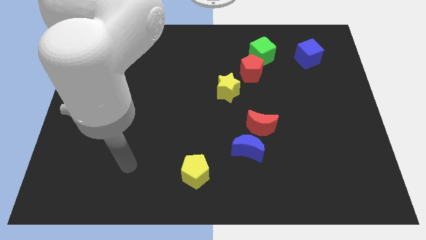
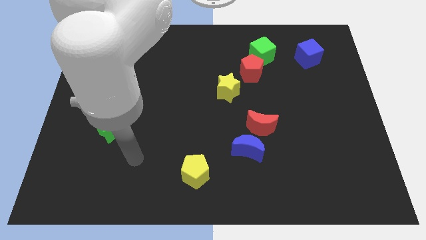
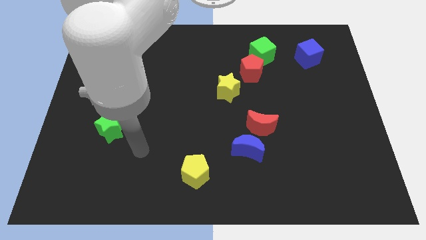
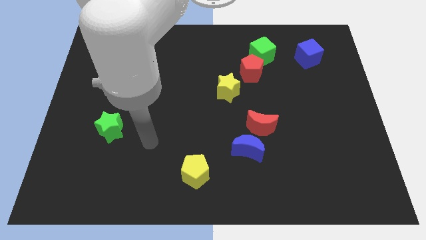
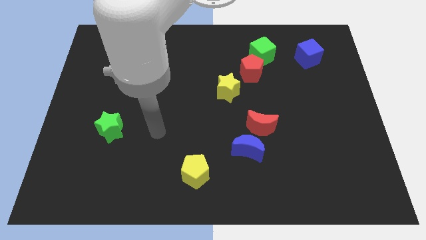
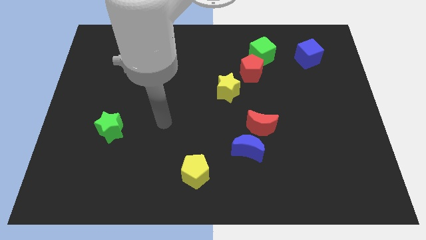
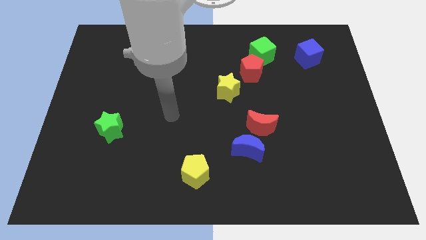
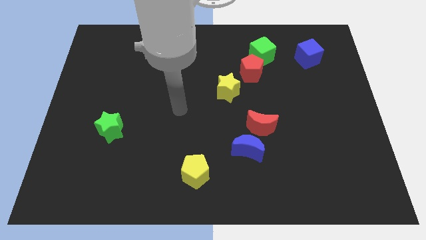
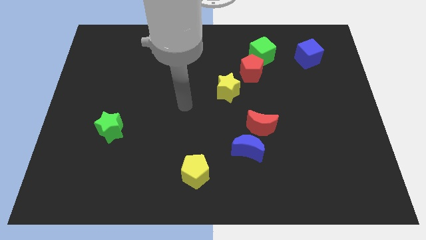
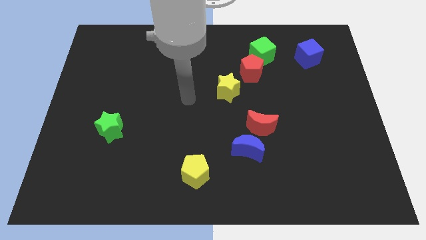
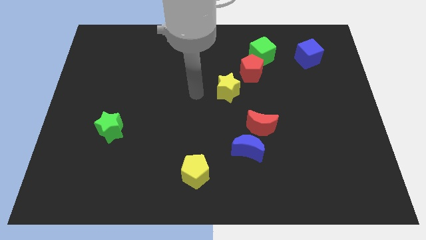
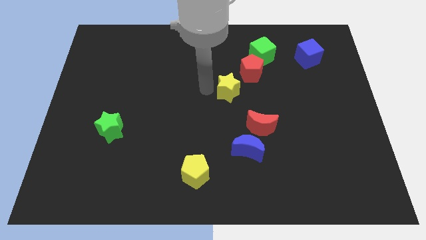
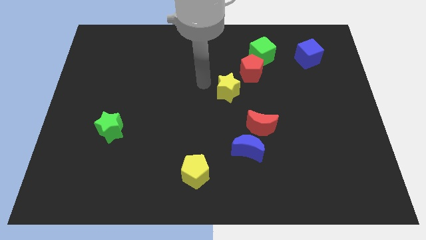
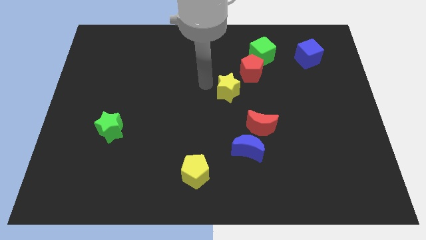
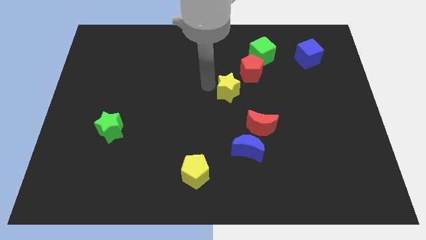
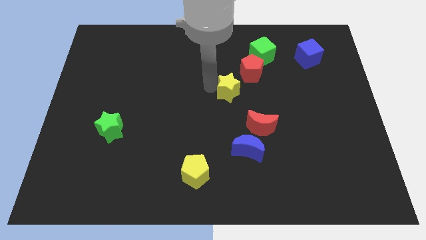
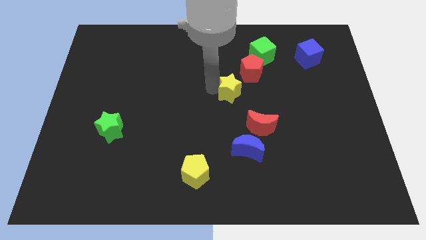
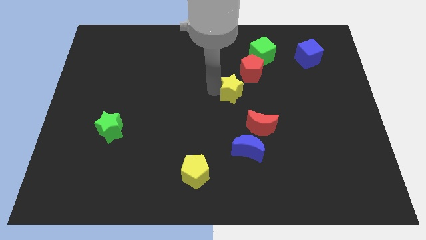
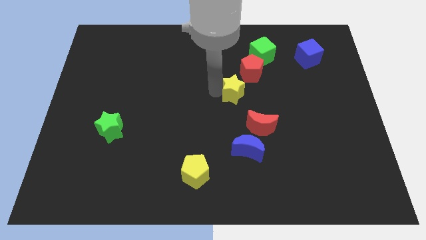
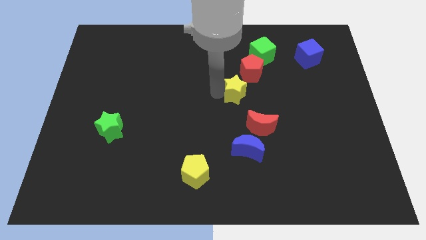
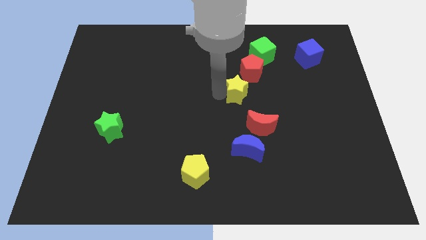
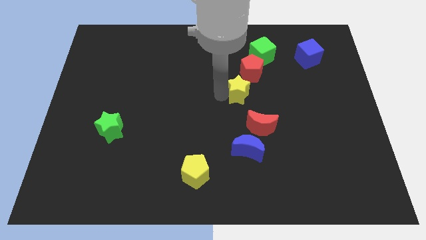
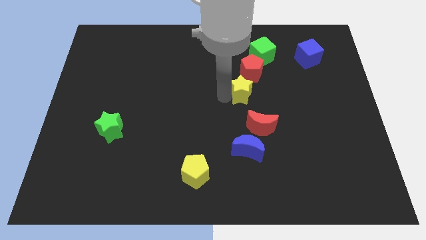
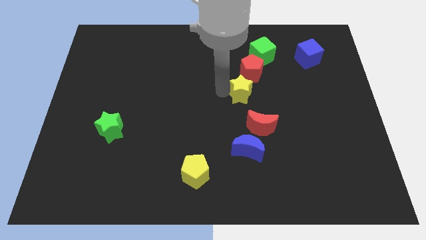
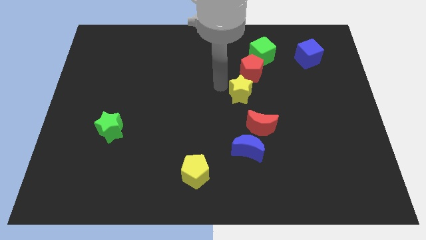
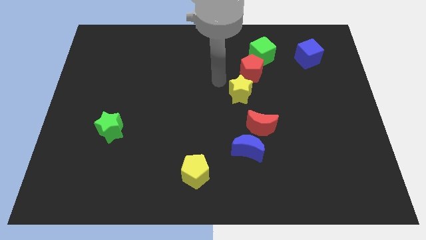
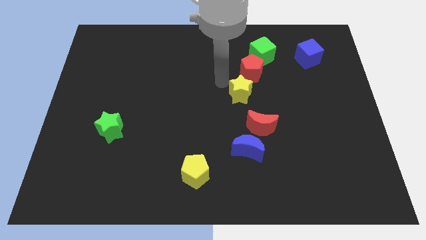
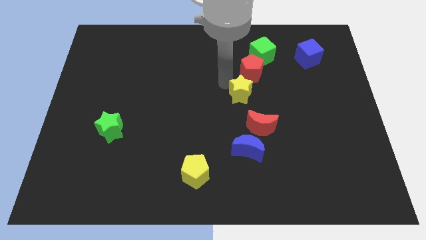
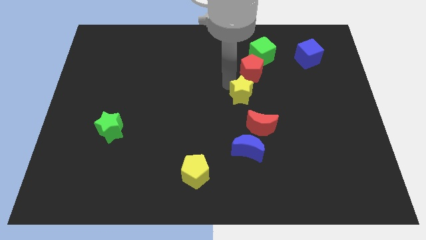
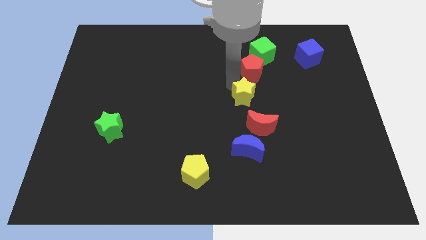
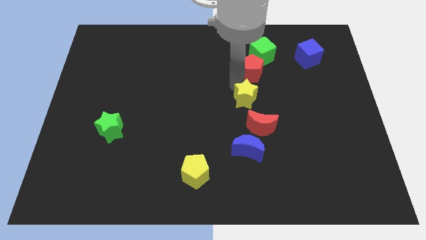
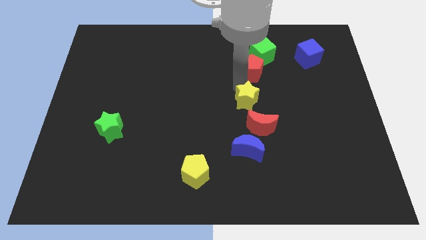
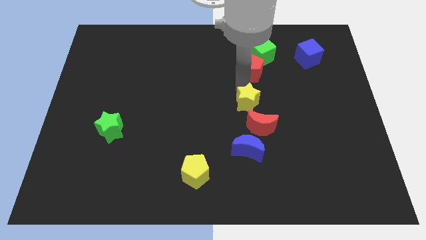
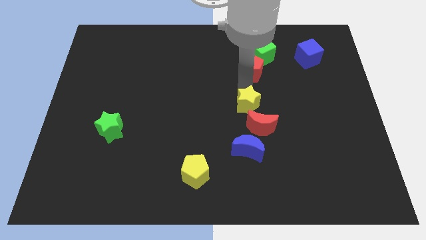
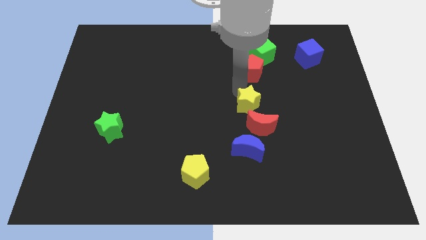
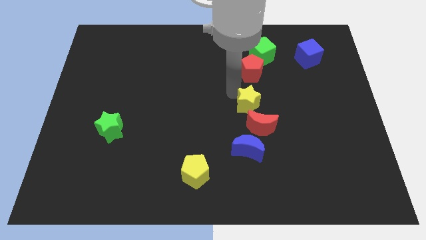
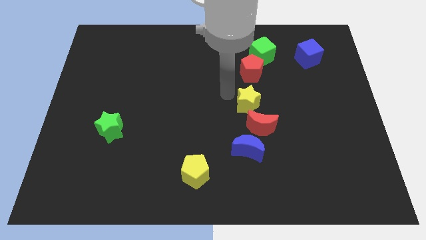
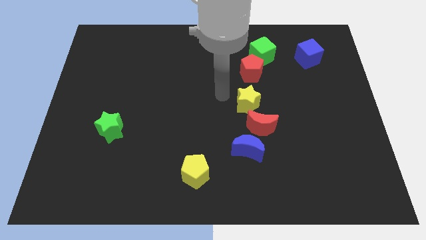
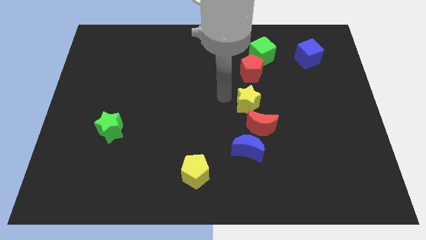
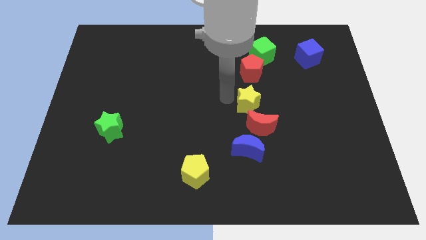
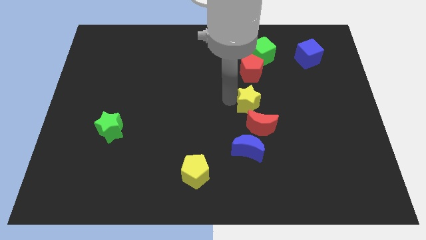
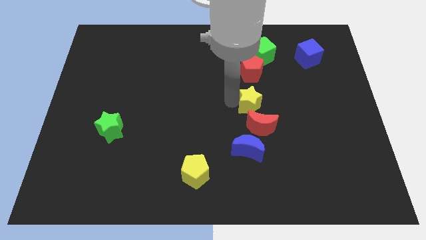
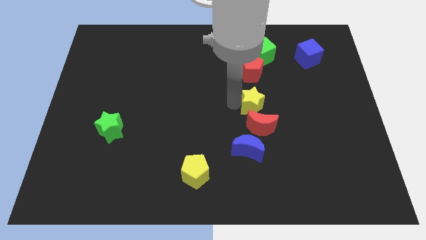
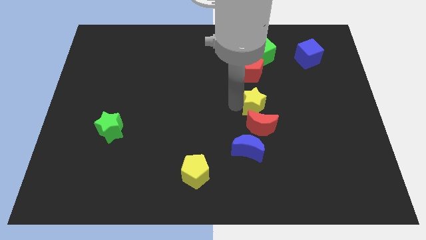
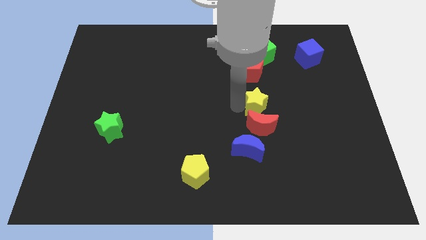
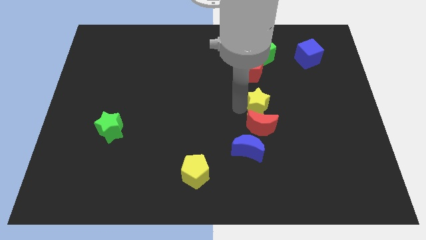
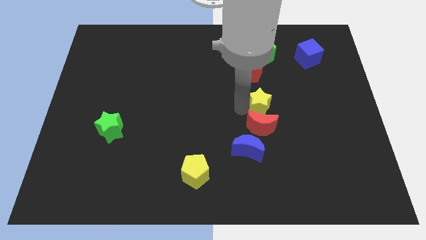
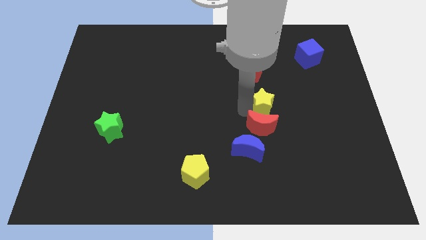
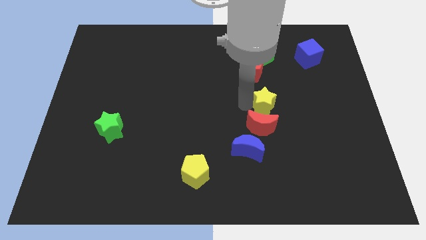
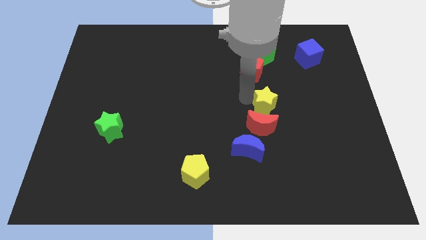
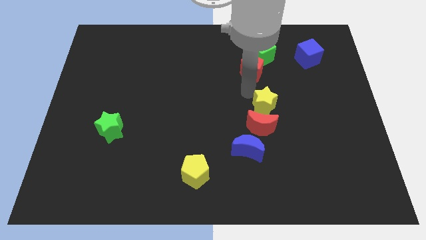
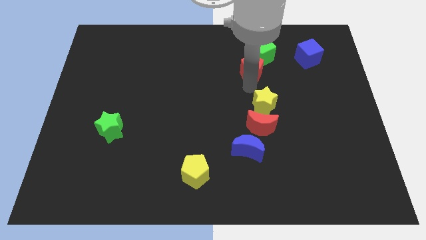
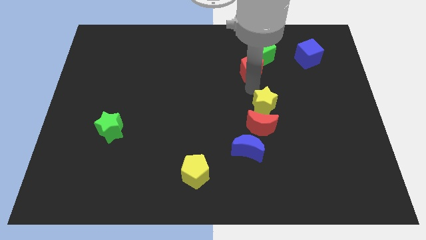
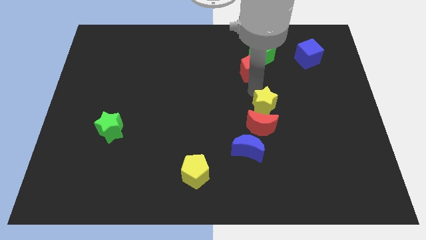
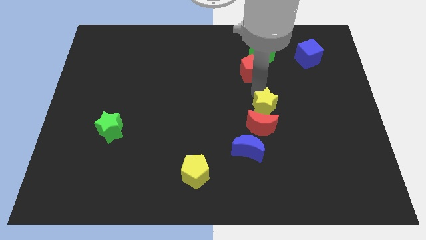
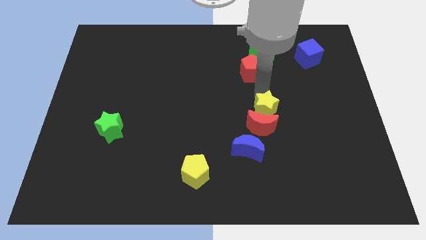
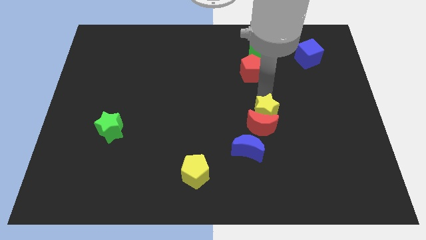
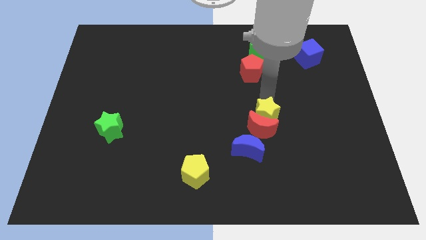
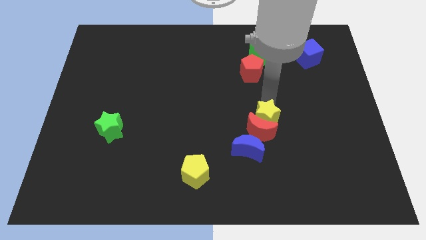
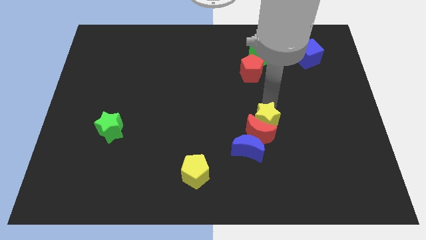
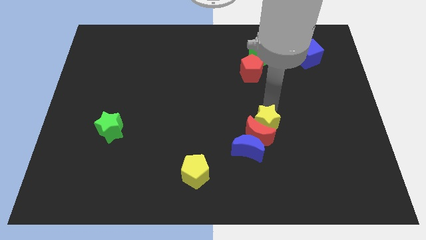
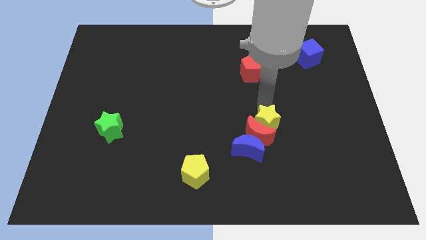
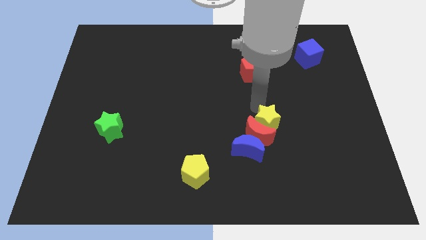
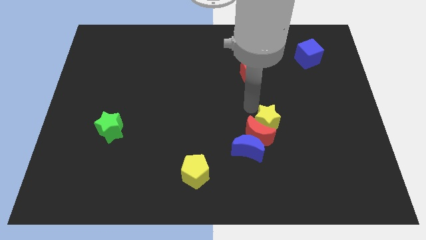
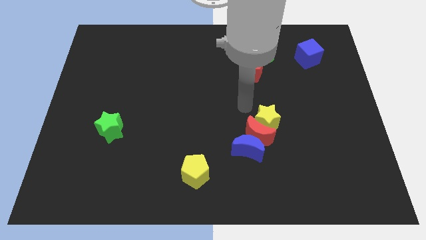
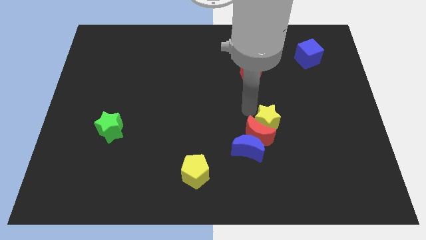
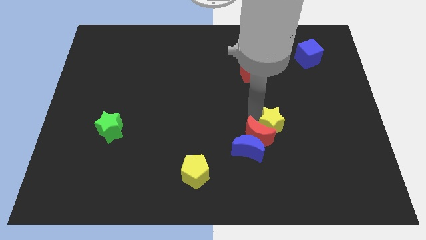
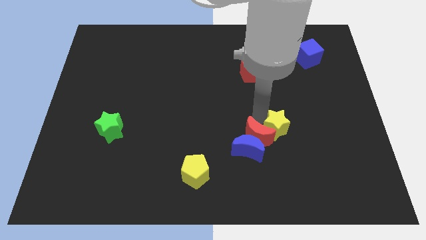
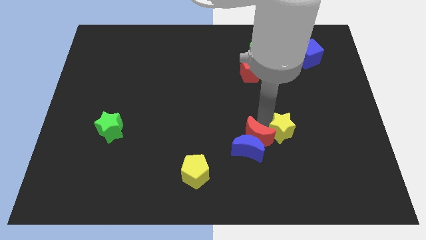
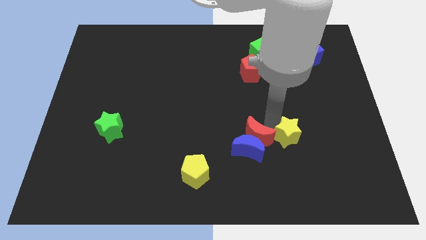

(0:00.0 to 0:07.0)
push the yellow star to the right side of the blue moon
